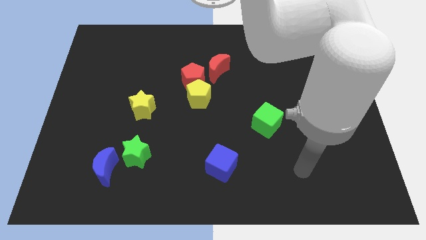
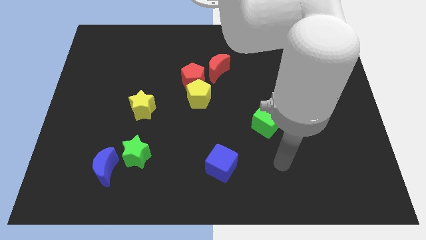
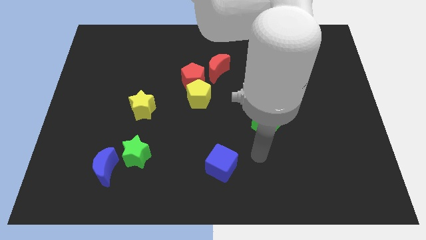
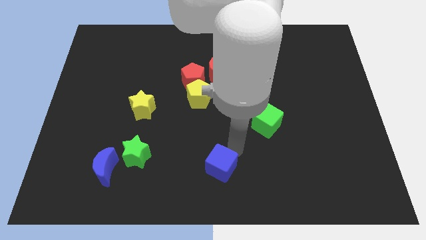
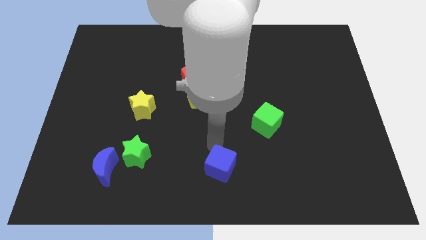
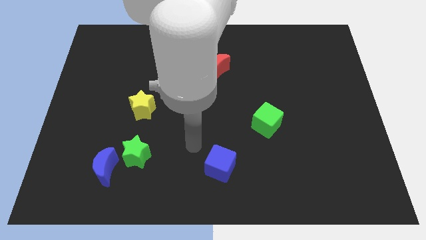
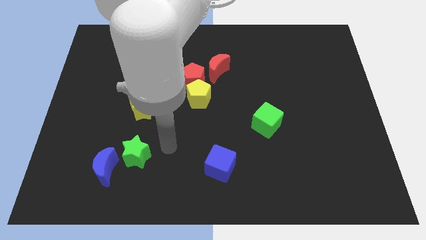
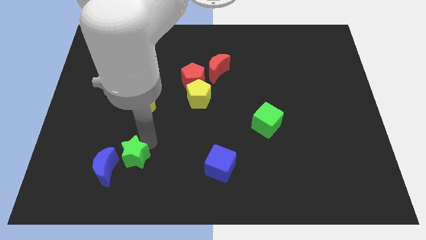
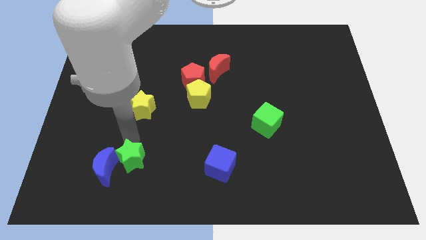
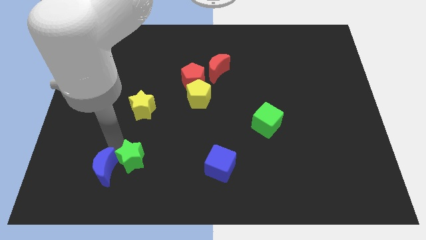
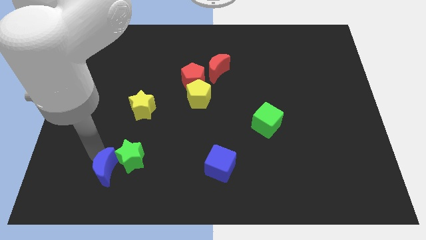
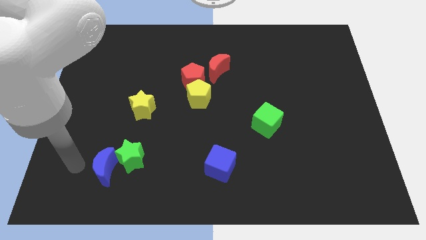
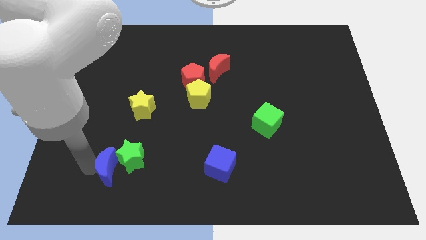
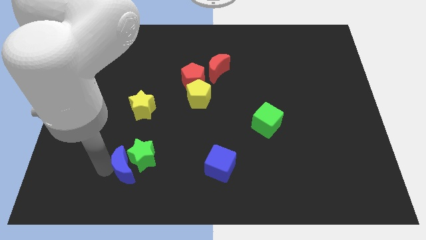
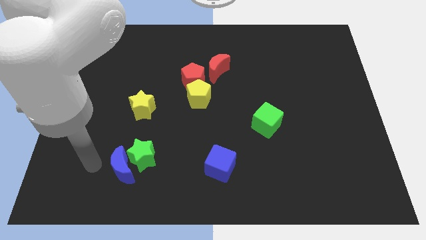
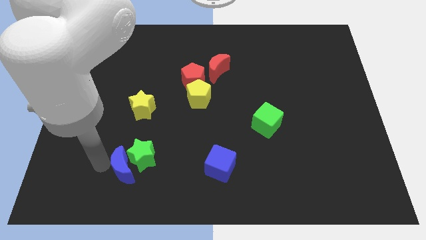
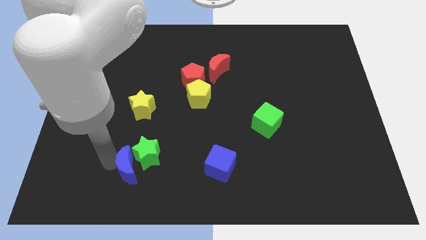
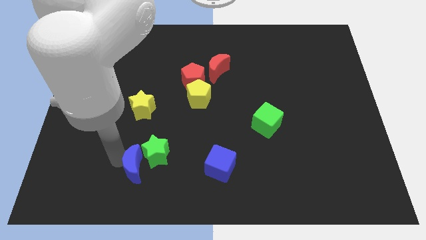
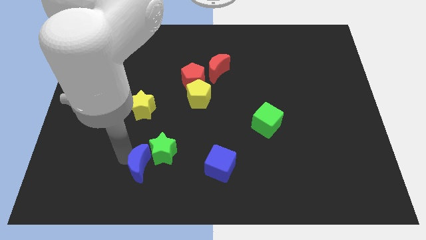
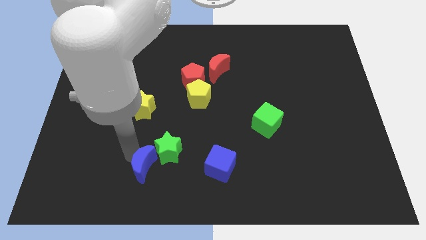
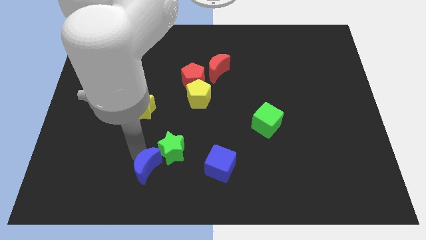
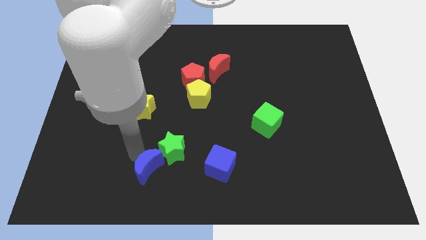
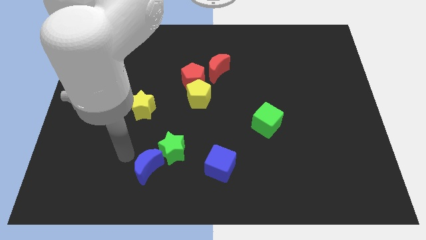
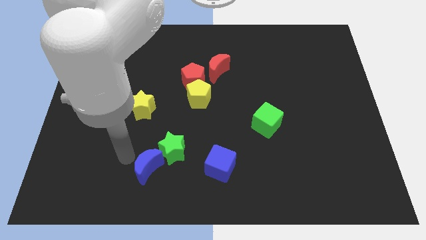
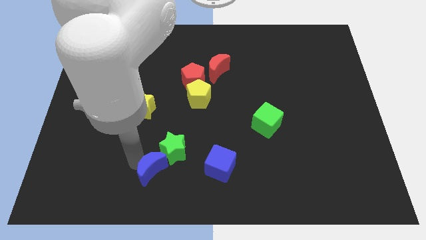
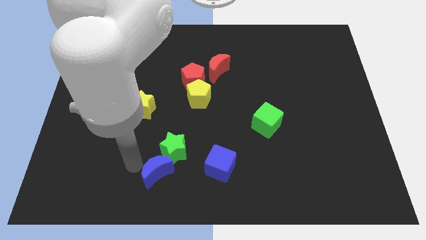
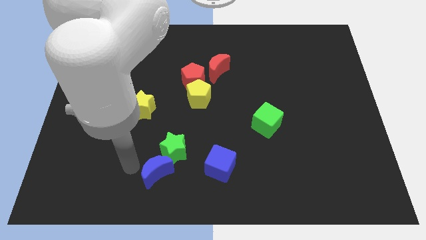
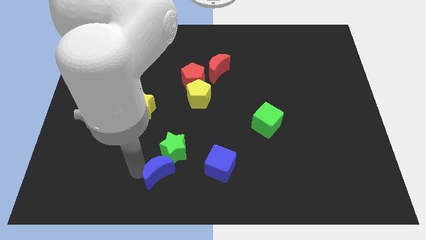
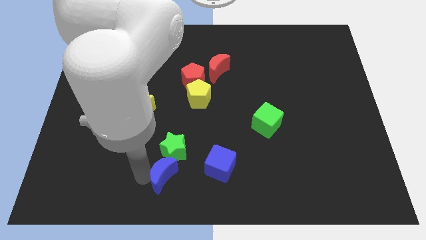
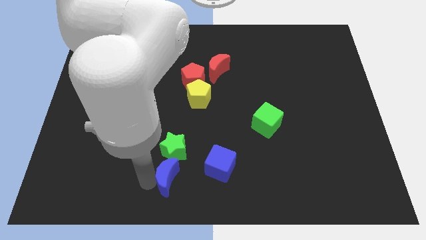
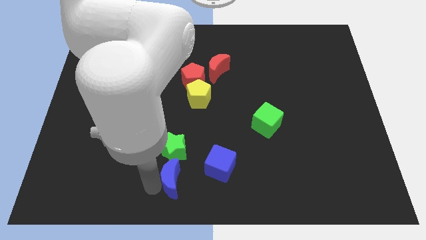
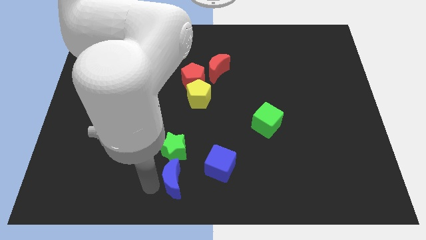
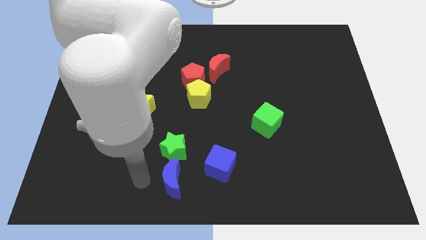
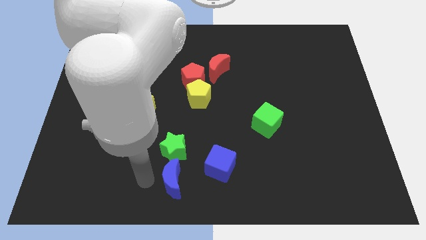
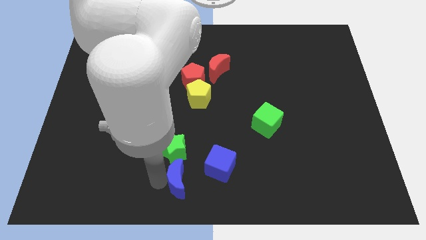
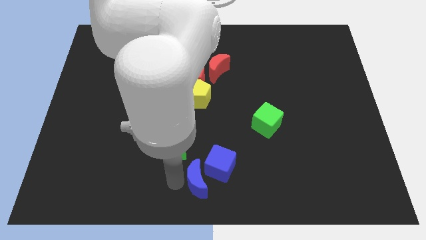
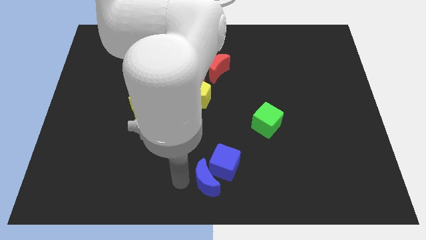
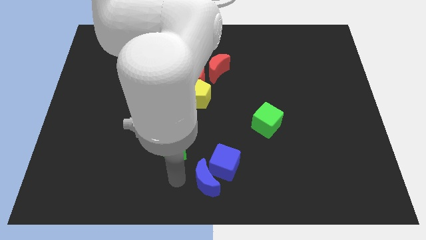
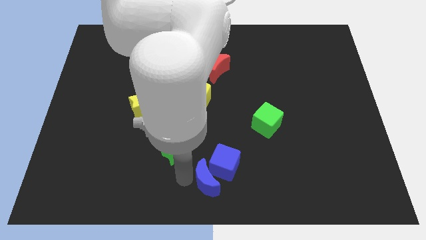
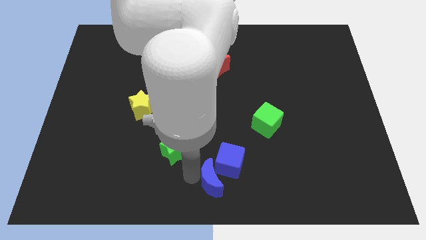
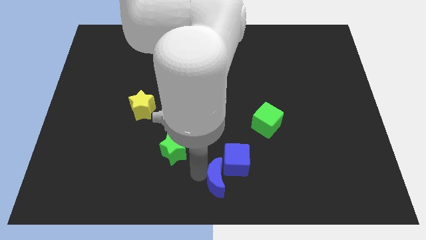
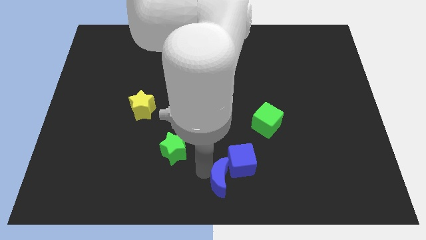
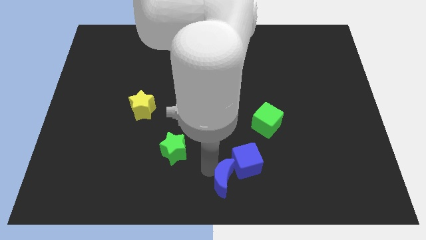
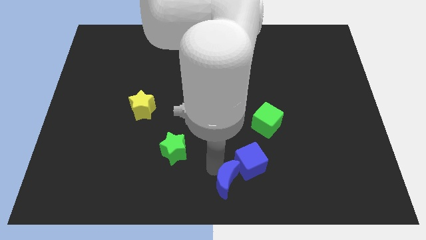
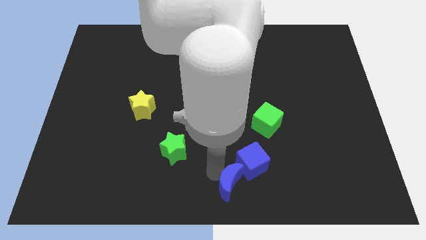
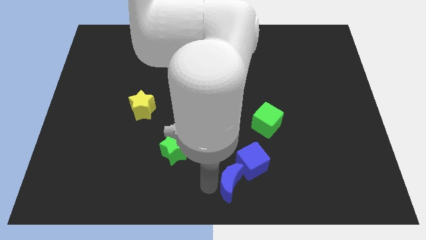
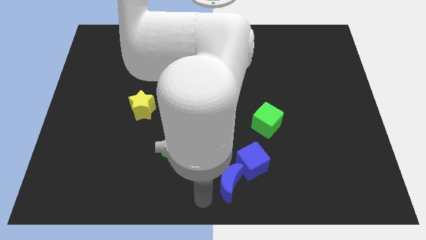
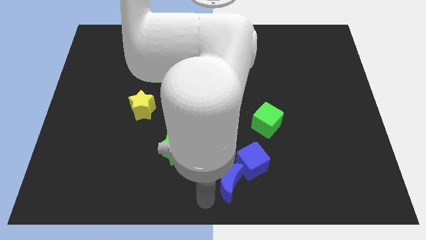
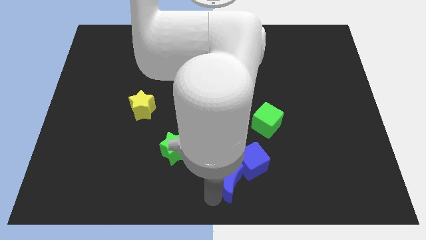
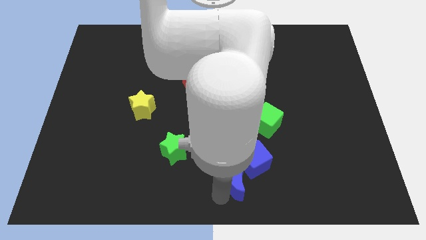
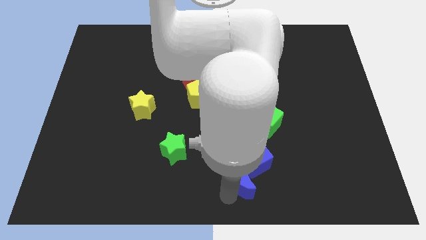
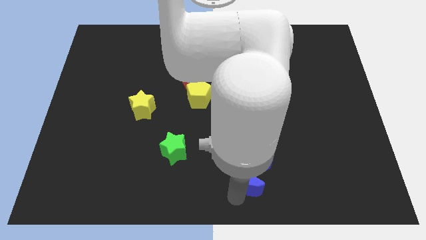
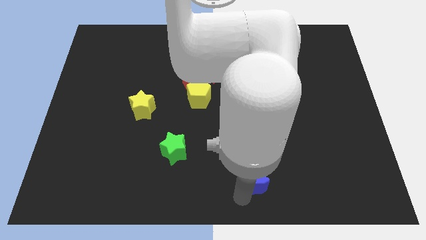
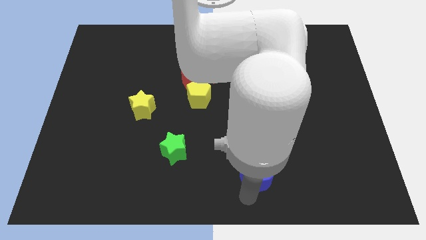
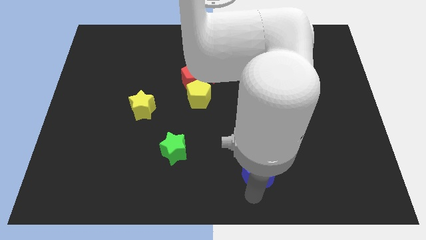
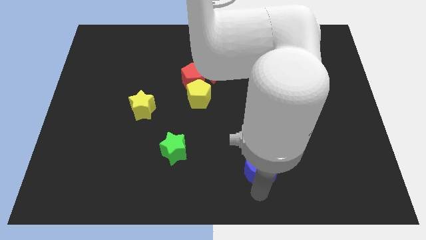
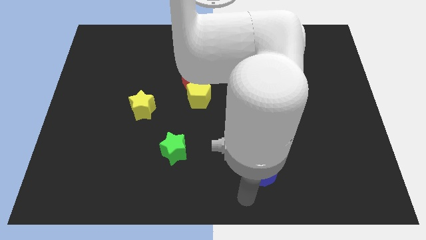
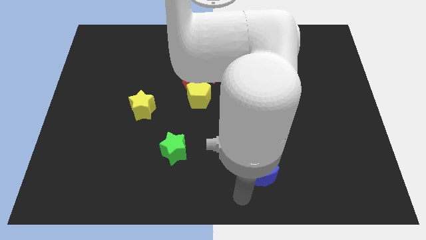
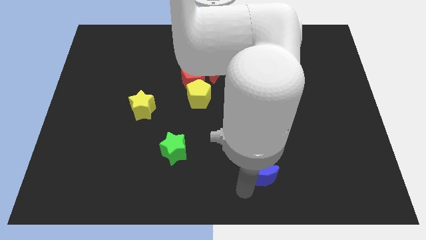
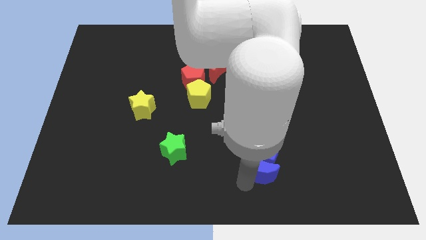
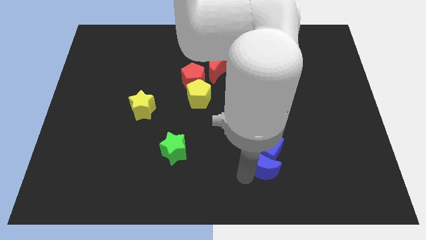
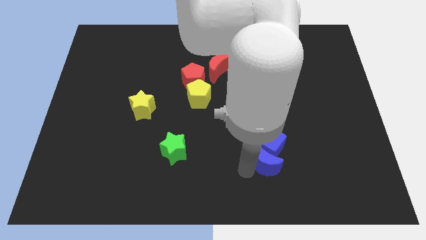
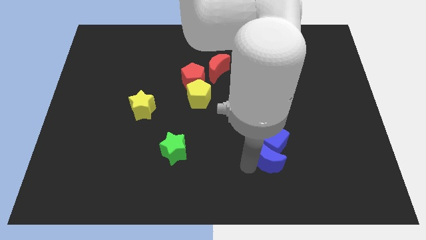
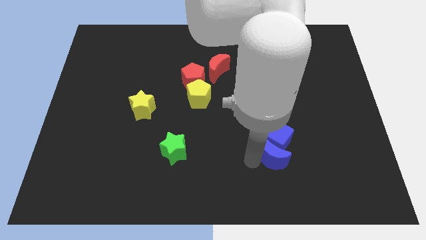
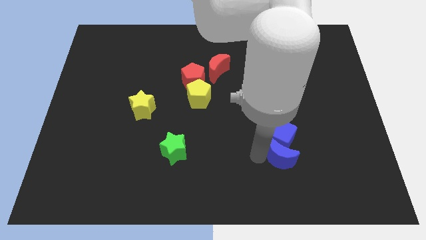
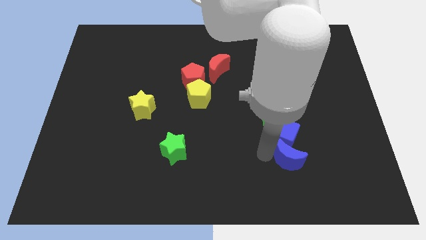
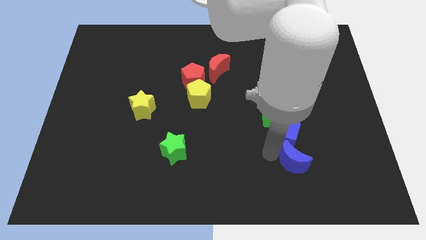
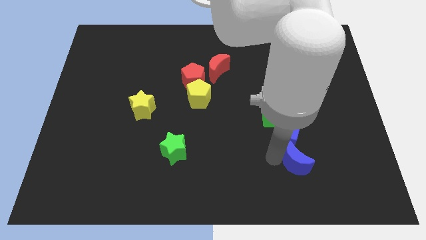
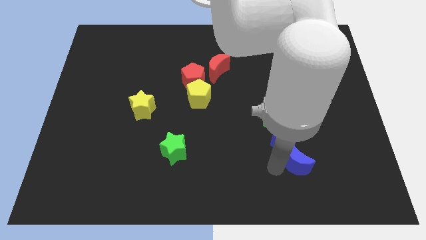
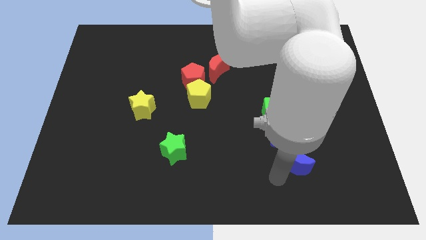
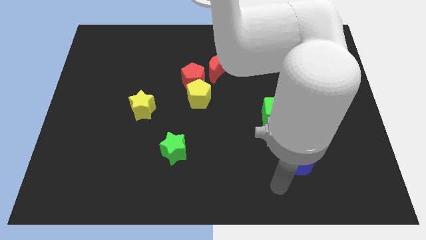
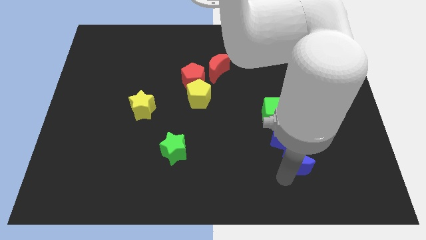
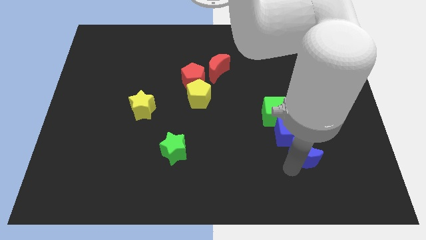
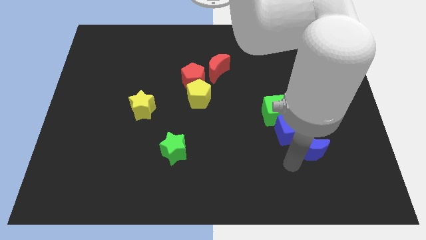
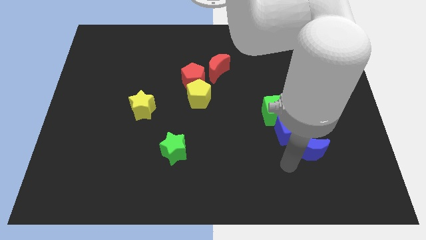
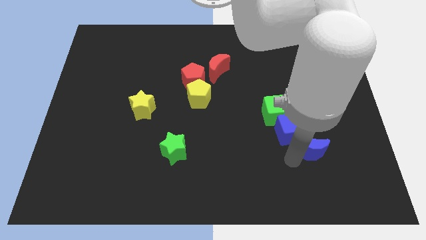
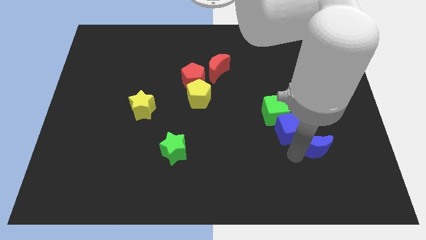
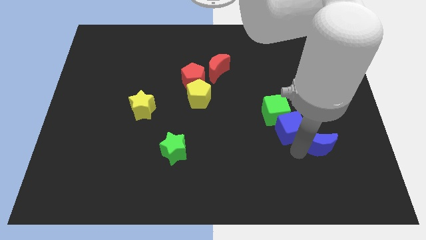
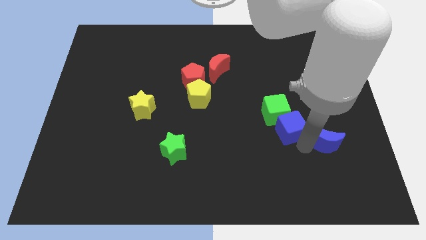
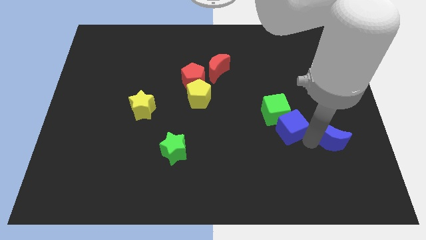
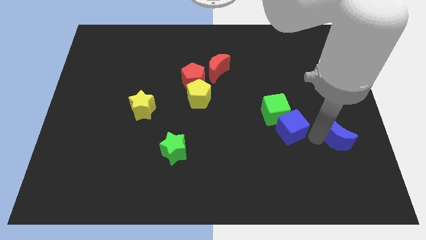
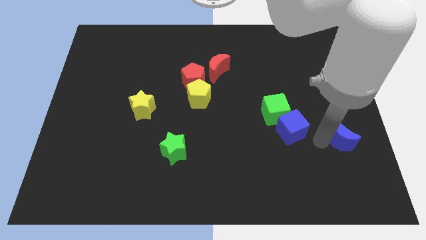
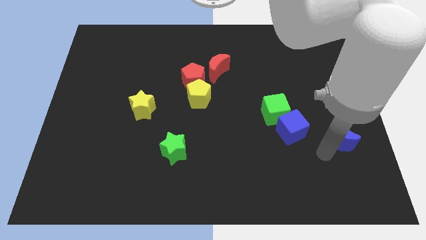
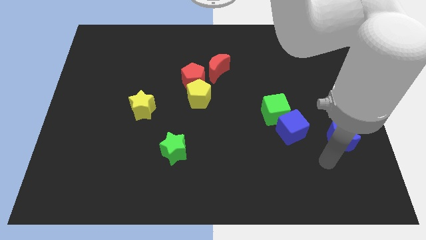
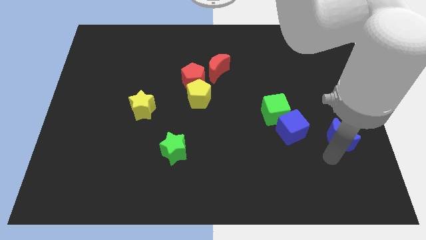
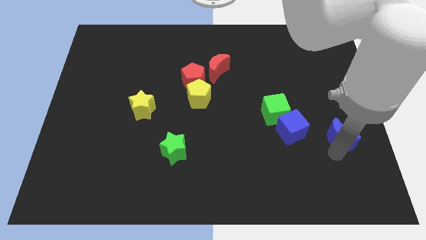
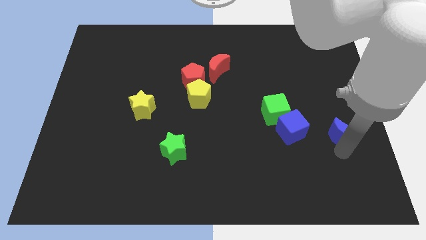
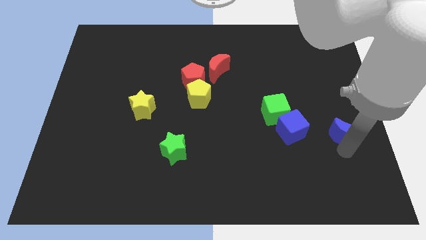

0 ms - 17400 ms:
put the blue moon to the right side
